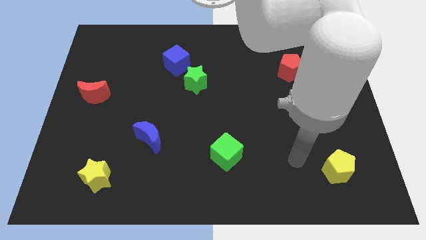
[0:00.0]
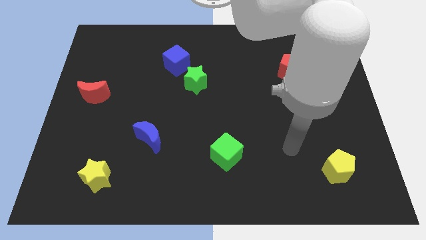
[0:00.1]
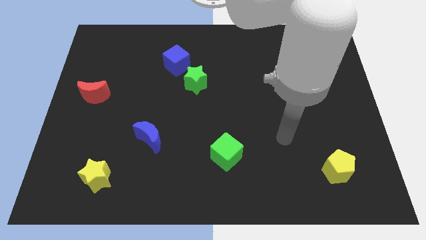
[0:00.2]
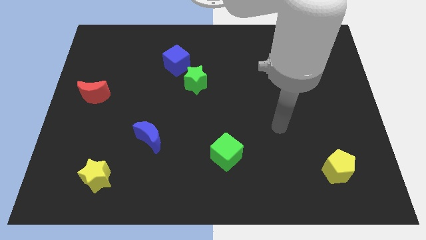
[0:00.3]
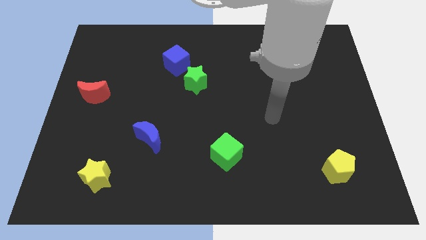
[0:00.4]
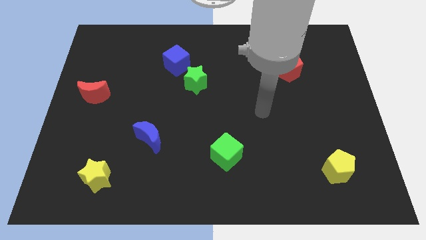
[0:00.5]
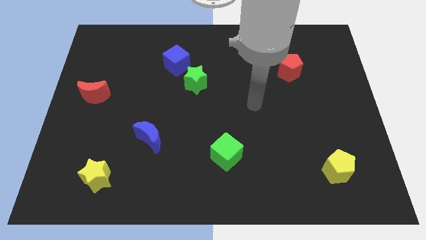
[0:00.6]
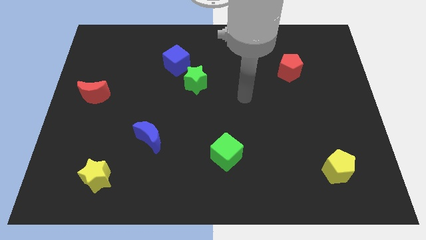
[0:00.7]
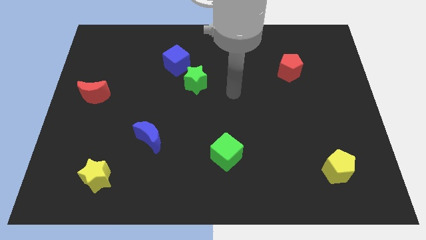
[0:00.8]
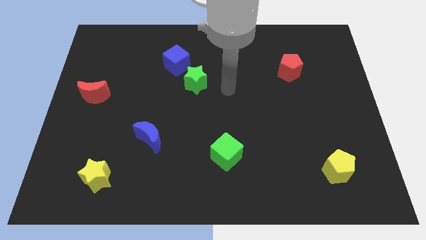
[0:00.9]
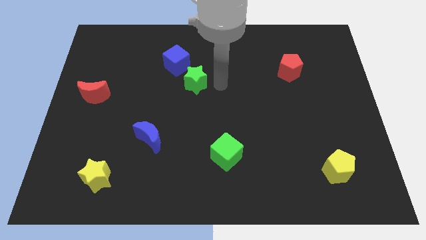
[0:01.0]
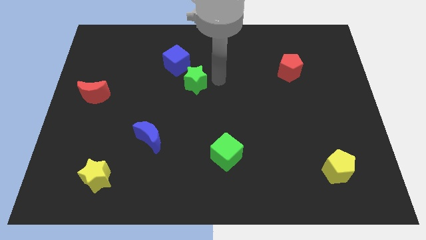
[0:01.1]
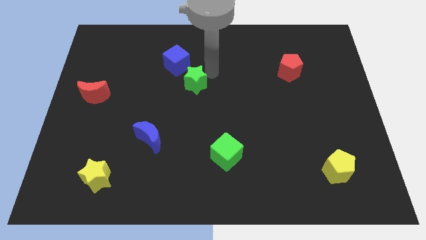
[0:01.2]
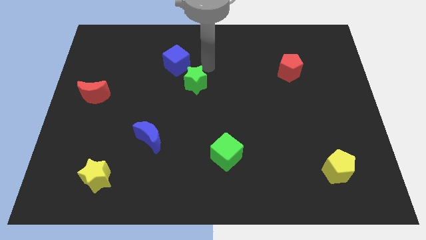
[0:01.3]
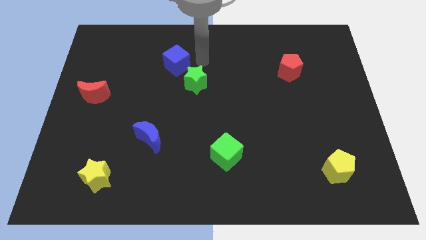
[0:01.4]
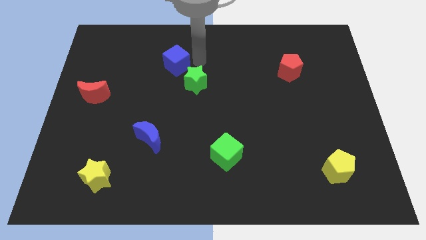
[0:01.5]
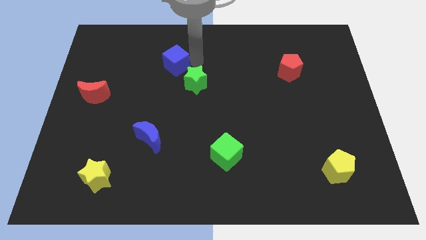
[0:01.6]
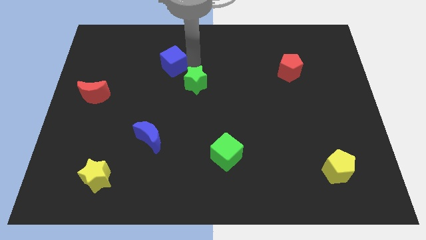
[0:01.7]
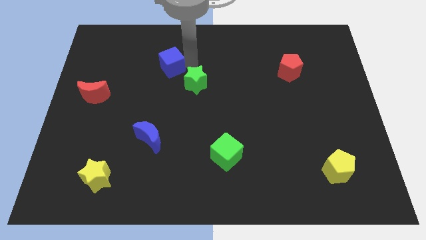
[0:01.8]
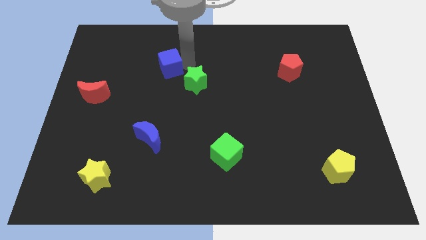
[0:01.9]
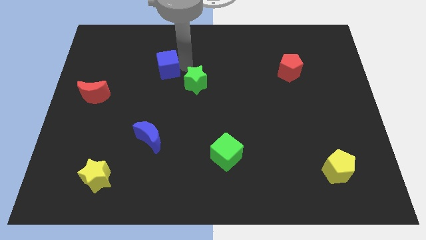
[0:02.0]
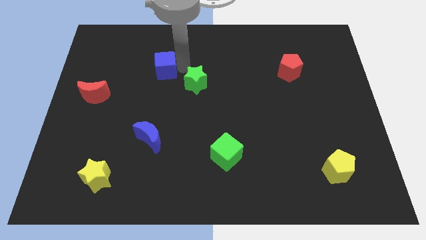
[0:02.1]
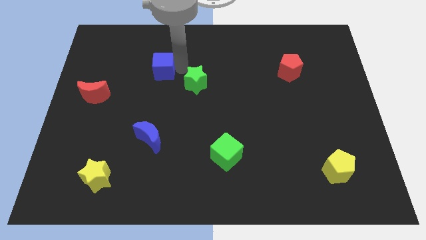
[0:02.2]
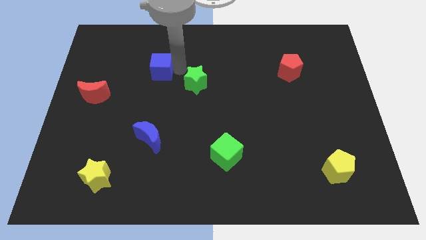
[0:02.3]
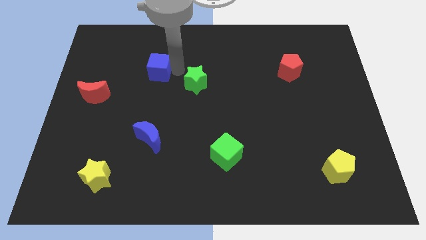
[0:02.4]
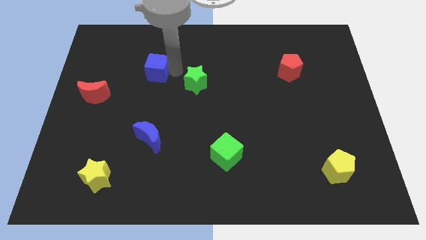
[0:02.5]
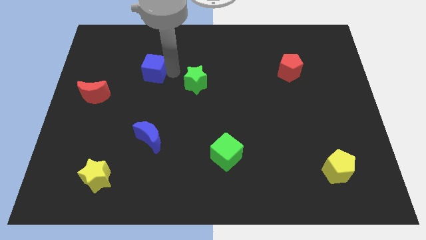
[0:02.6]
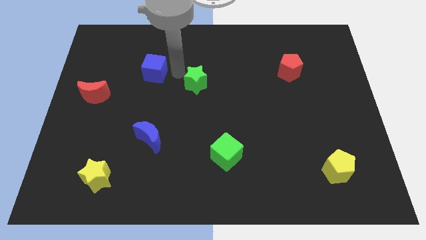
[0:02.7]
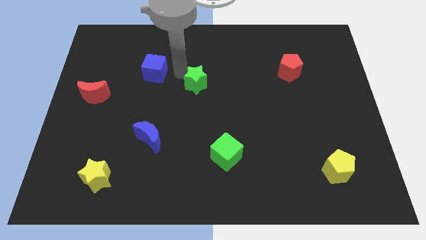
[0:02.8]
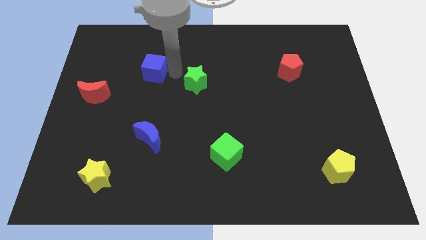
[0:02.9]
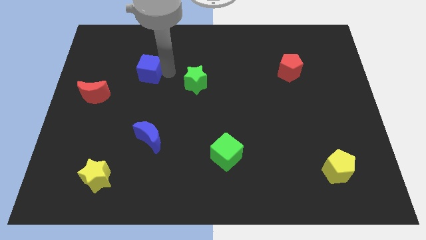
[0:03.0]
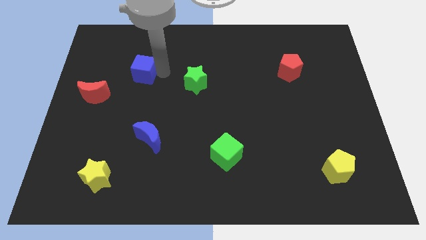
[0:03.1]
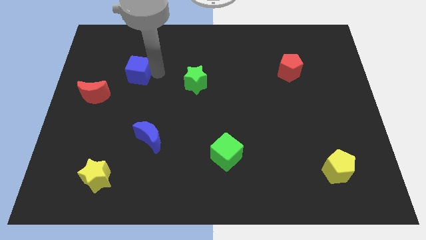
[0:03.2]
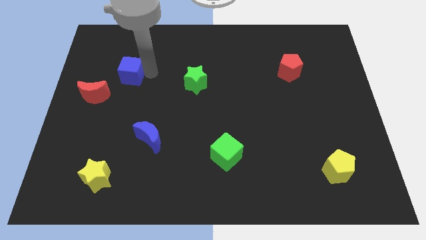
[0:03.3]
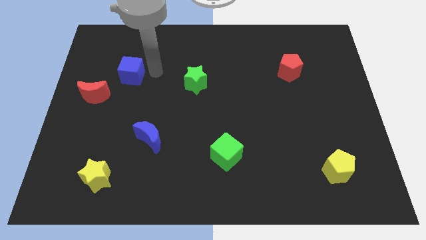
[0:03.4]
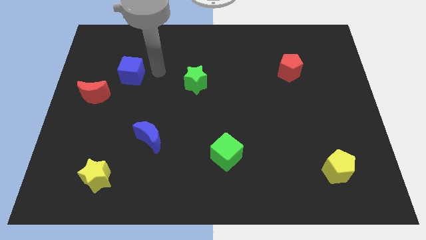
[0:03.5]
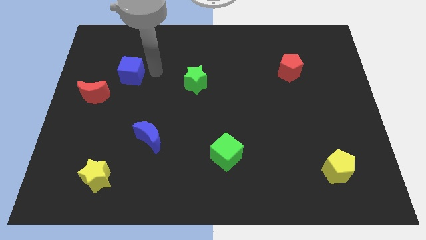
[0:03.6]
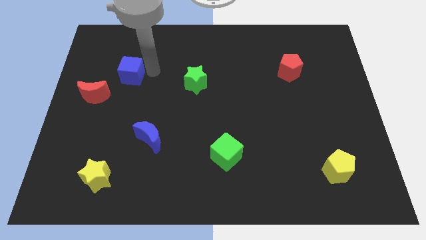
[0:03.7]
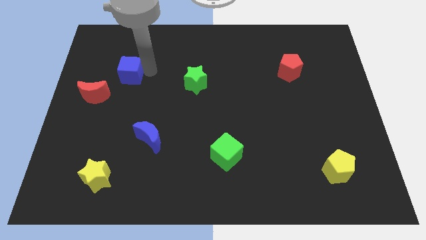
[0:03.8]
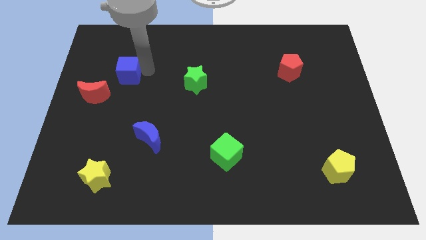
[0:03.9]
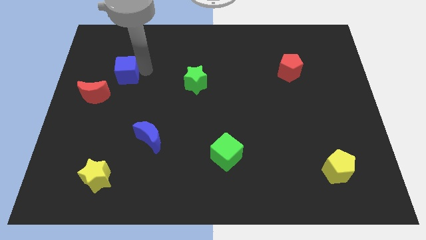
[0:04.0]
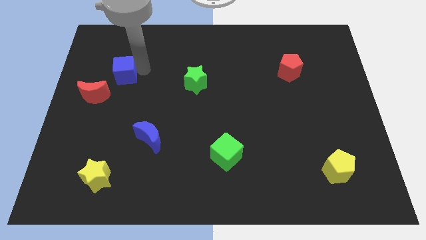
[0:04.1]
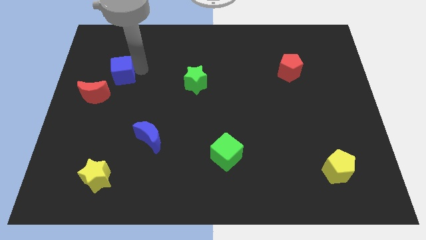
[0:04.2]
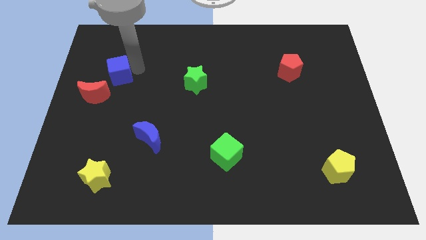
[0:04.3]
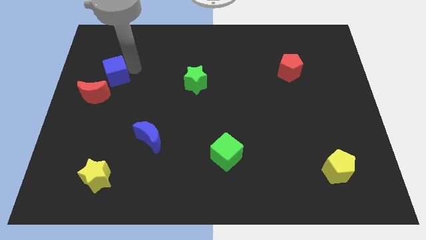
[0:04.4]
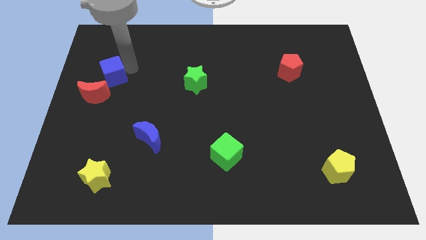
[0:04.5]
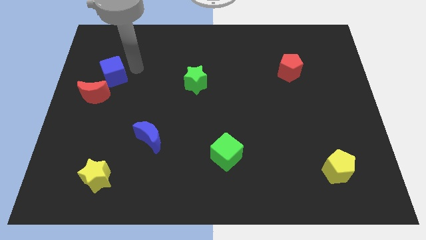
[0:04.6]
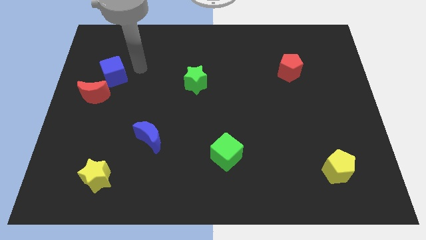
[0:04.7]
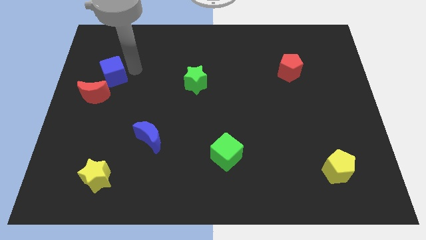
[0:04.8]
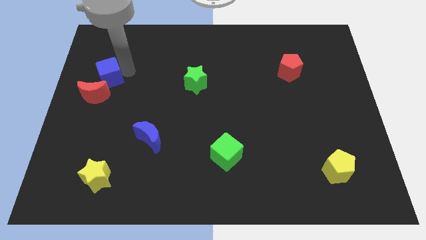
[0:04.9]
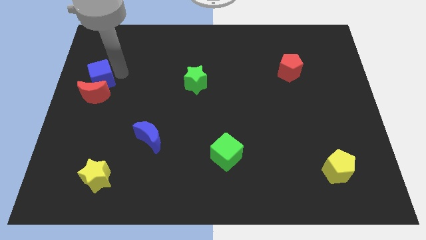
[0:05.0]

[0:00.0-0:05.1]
slide the blue cube to the center left

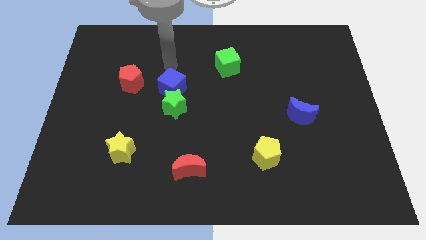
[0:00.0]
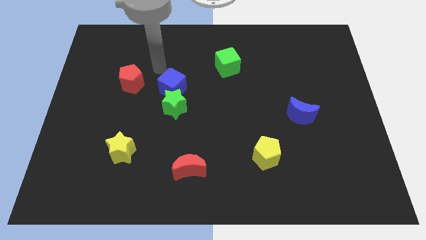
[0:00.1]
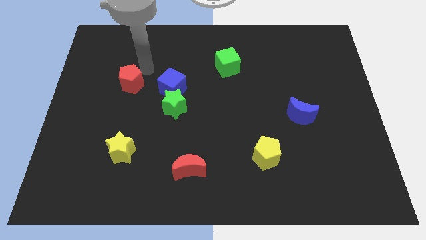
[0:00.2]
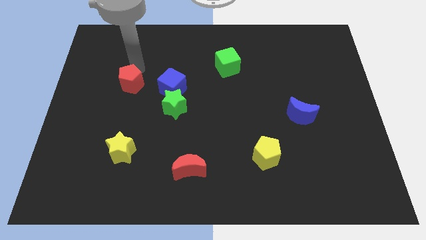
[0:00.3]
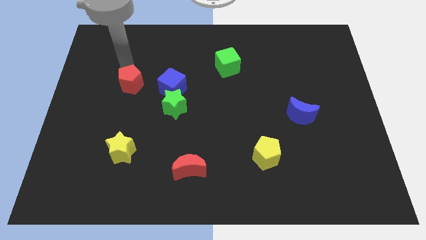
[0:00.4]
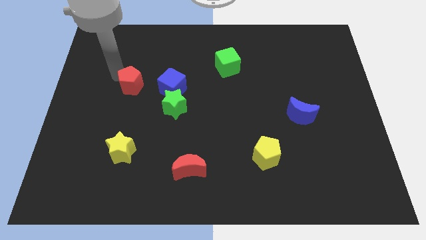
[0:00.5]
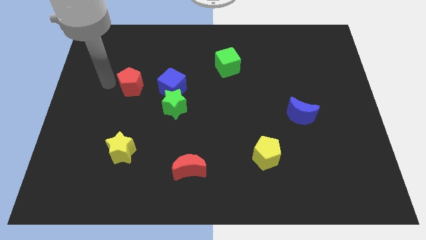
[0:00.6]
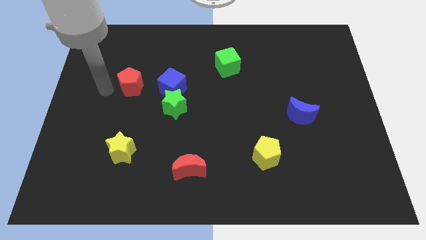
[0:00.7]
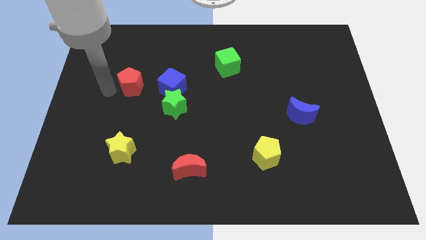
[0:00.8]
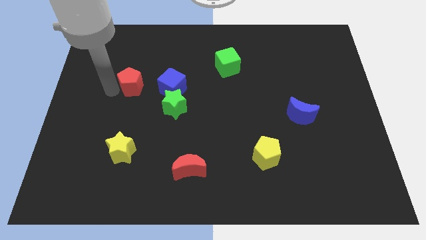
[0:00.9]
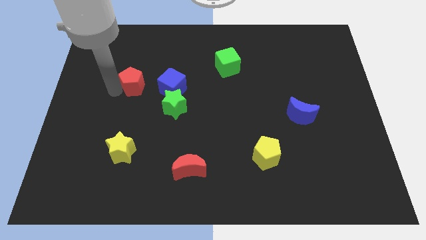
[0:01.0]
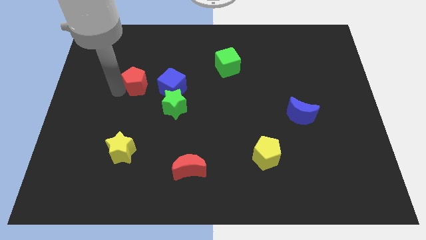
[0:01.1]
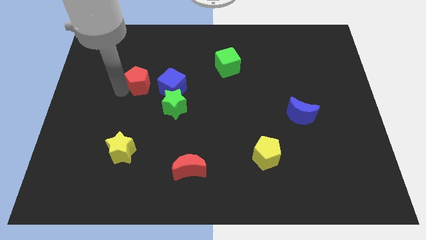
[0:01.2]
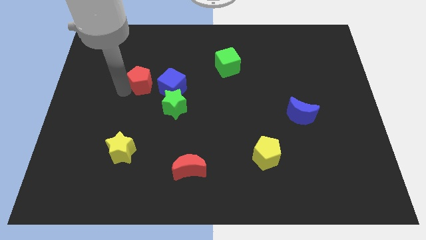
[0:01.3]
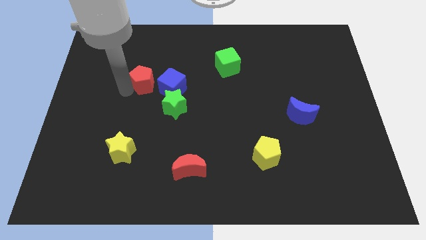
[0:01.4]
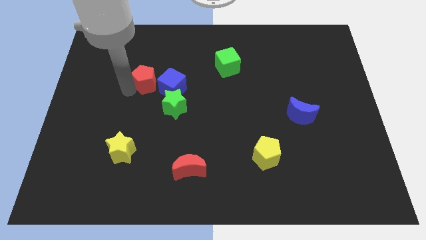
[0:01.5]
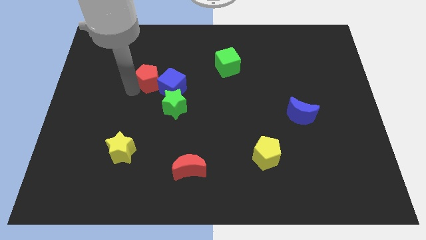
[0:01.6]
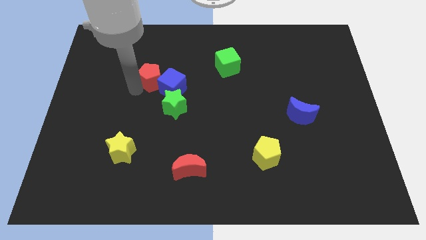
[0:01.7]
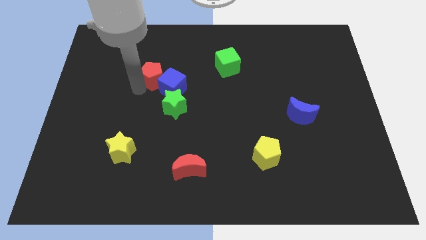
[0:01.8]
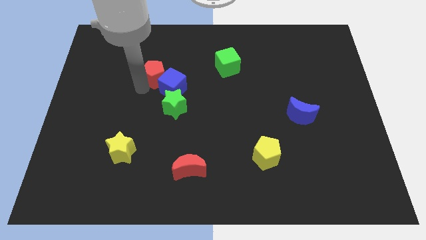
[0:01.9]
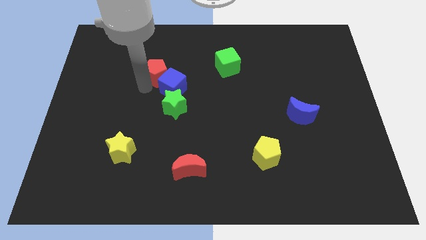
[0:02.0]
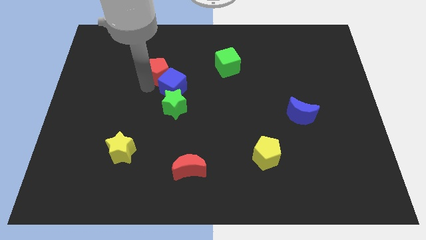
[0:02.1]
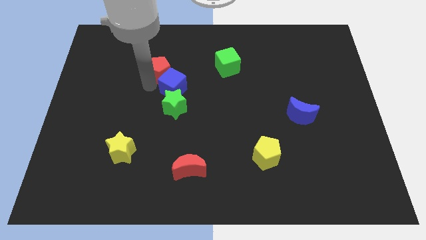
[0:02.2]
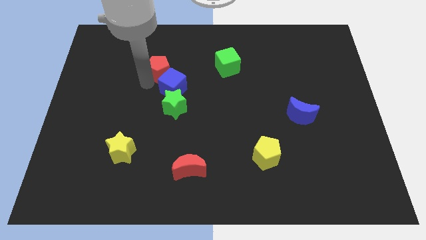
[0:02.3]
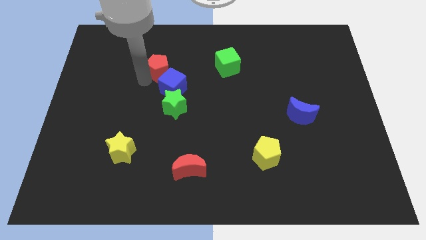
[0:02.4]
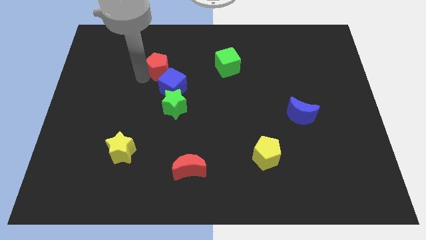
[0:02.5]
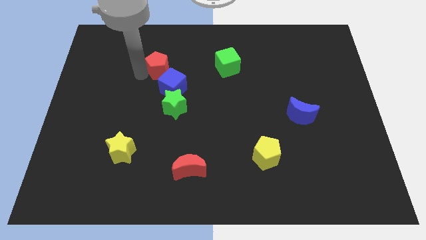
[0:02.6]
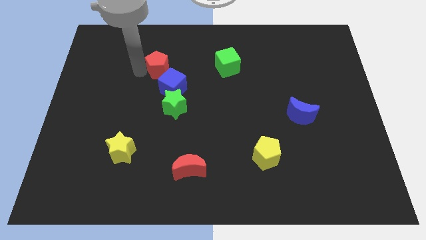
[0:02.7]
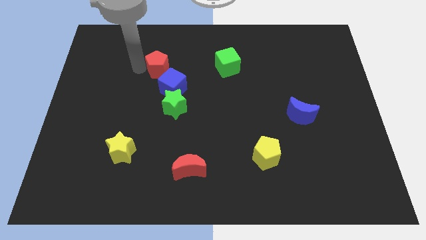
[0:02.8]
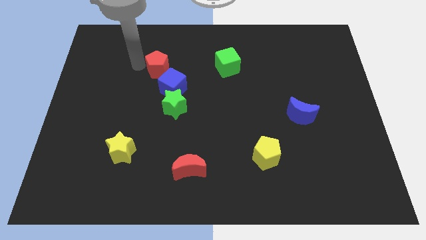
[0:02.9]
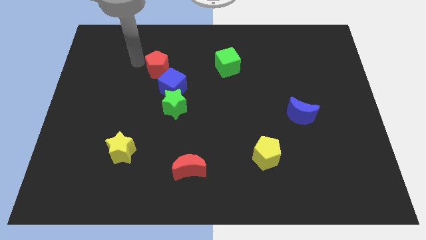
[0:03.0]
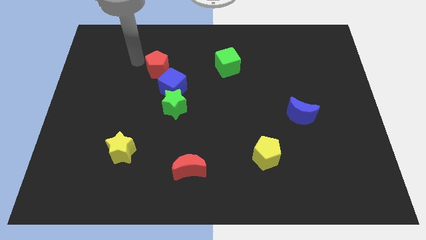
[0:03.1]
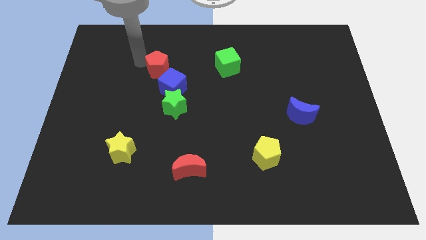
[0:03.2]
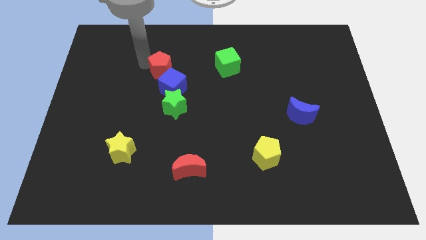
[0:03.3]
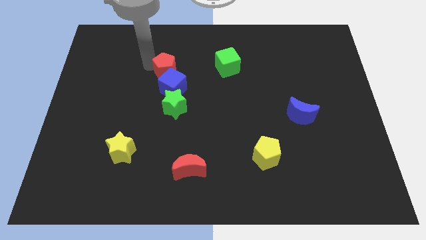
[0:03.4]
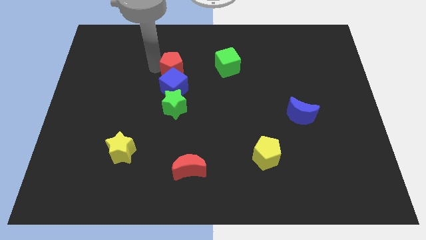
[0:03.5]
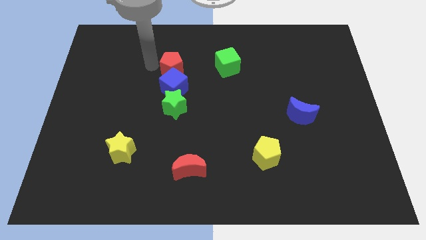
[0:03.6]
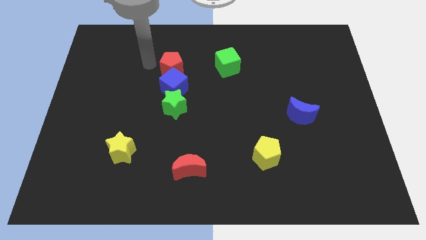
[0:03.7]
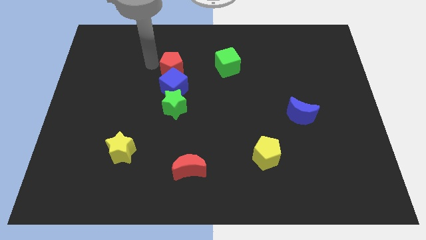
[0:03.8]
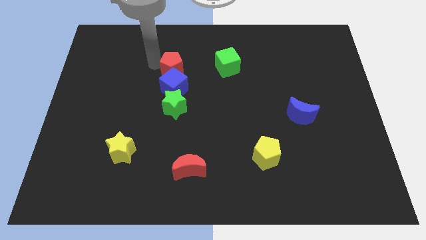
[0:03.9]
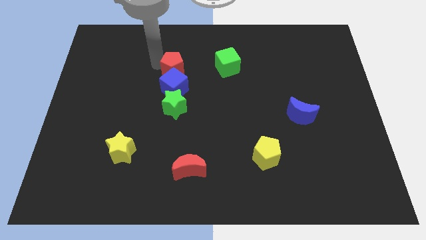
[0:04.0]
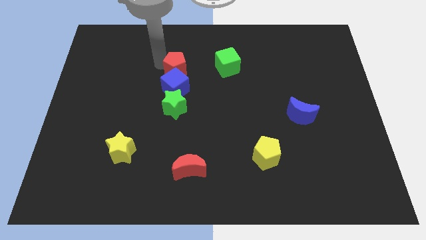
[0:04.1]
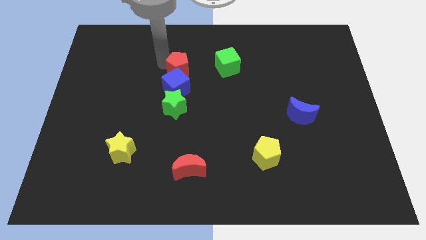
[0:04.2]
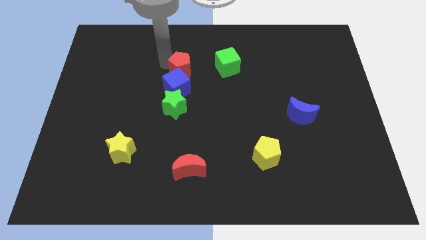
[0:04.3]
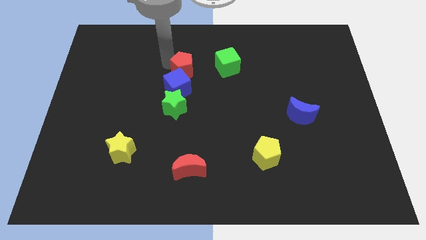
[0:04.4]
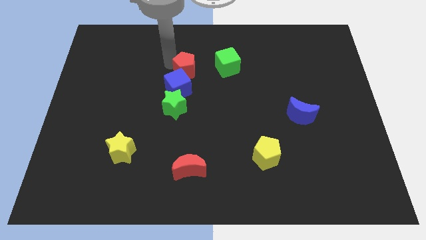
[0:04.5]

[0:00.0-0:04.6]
slide the red pentagon to the center of the board
